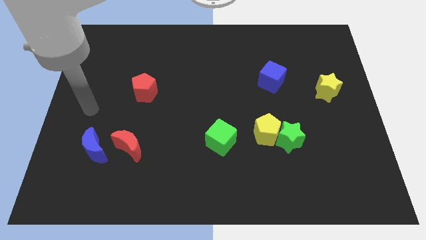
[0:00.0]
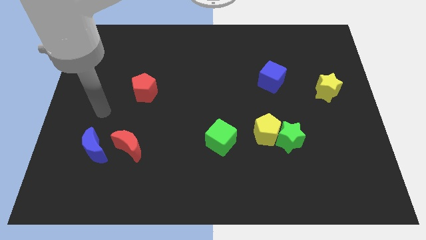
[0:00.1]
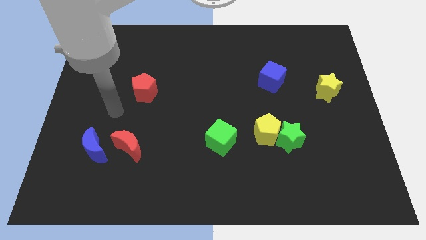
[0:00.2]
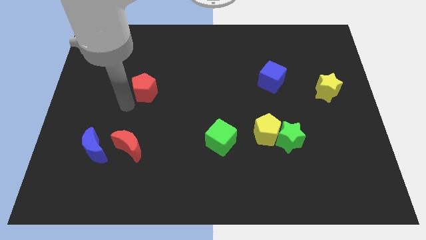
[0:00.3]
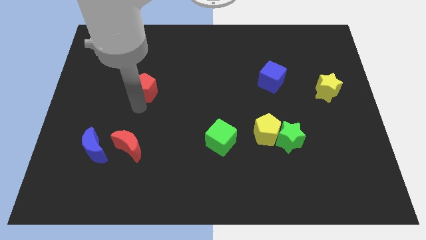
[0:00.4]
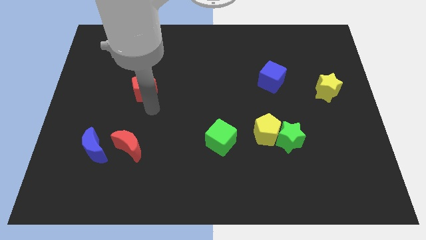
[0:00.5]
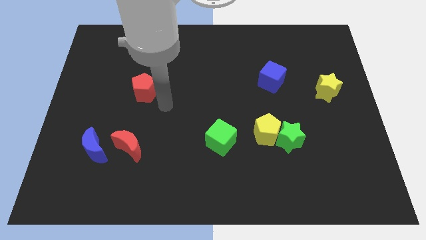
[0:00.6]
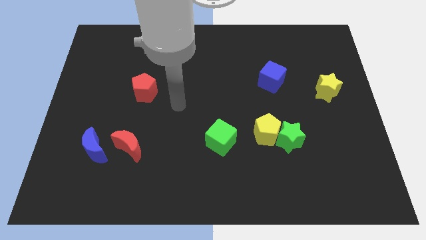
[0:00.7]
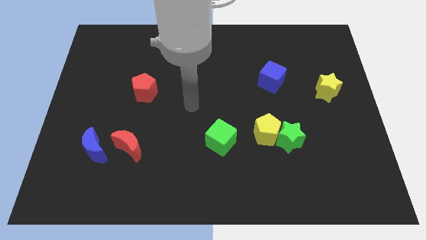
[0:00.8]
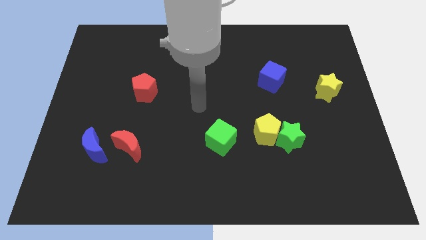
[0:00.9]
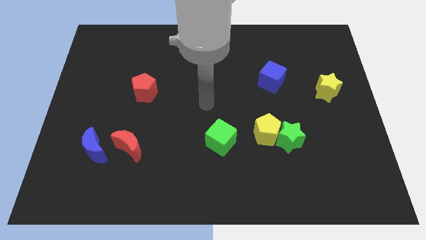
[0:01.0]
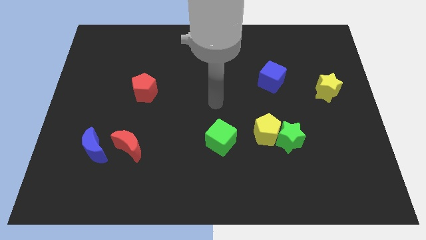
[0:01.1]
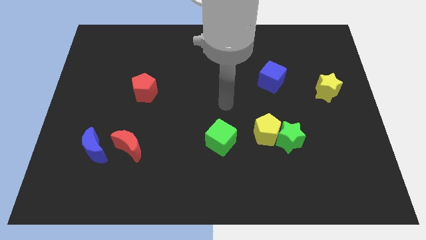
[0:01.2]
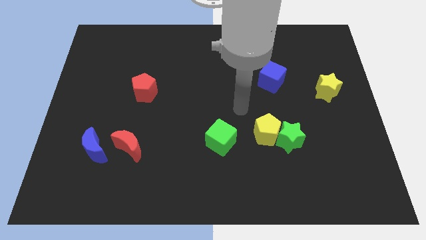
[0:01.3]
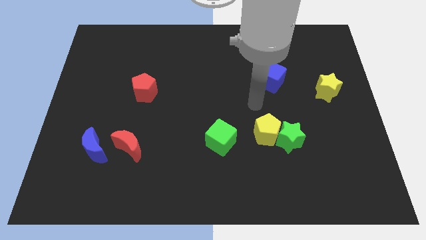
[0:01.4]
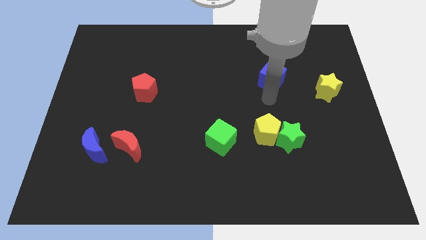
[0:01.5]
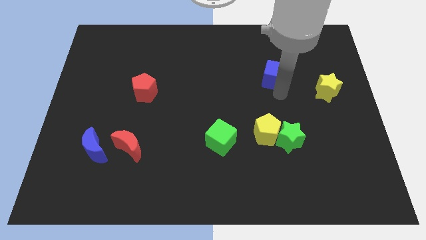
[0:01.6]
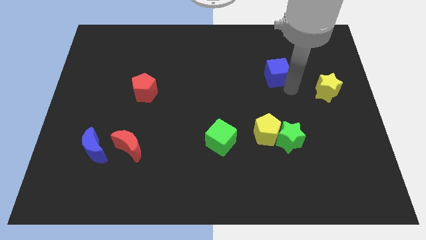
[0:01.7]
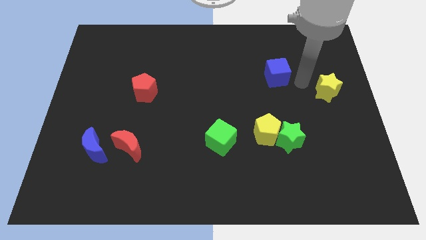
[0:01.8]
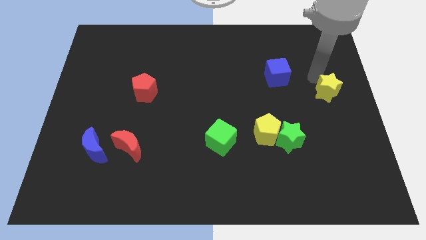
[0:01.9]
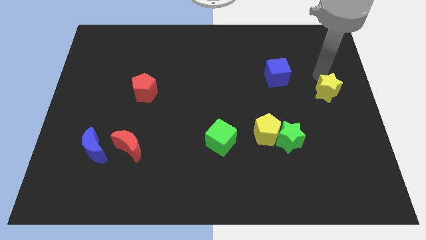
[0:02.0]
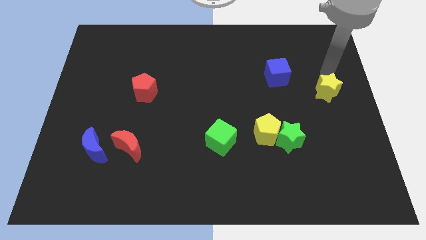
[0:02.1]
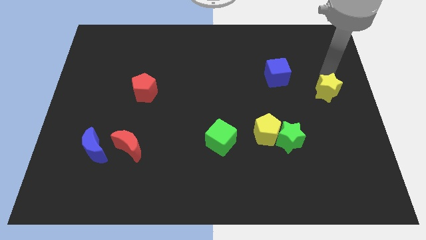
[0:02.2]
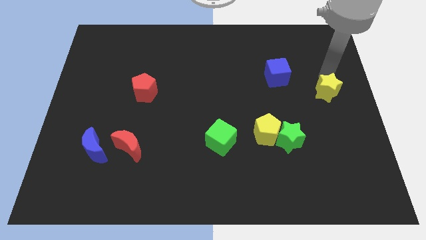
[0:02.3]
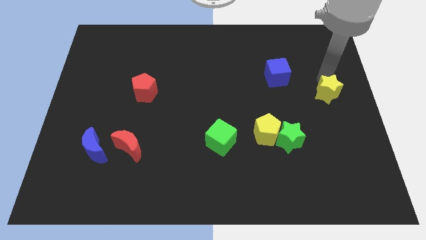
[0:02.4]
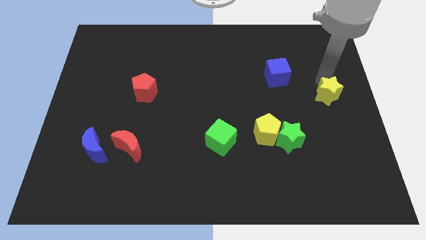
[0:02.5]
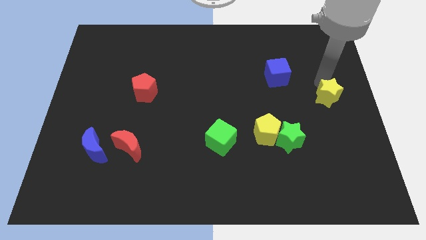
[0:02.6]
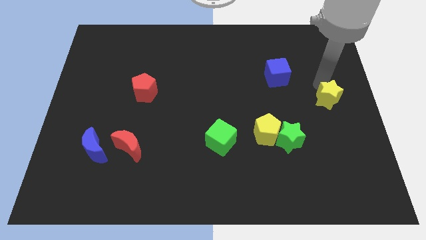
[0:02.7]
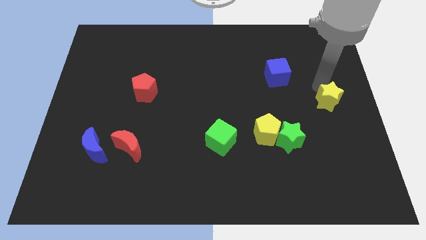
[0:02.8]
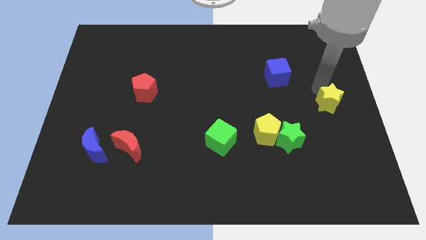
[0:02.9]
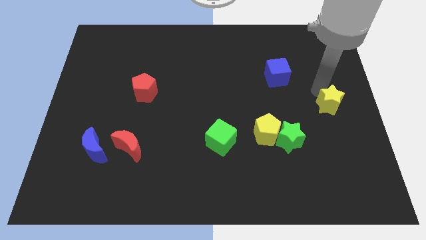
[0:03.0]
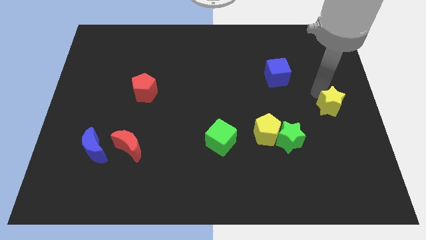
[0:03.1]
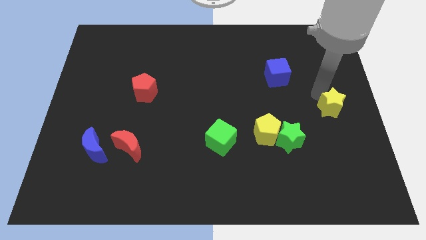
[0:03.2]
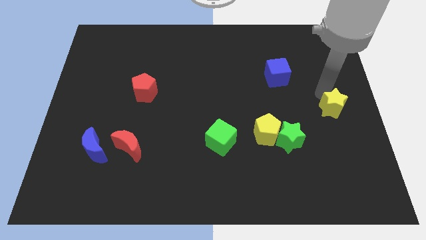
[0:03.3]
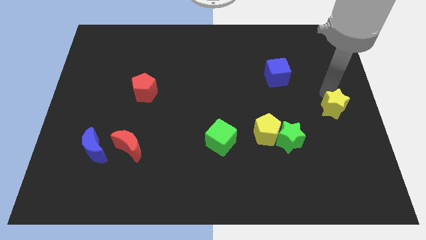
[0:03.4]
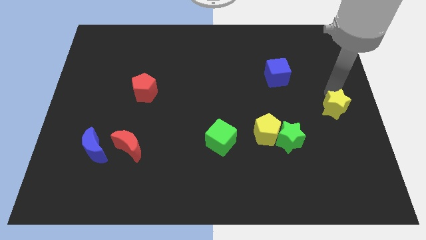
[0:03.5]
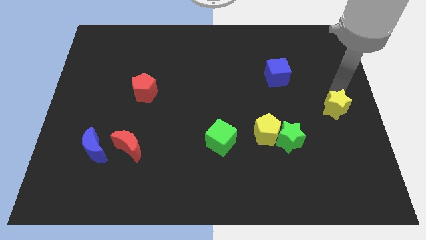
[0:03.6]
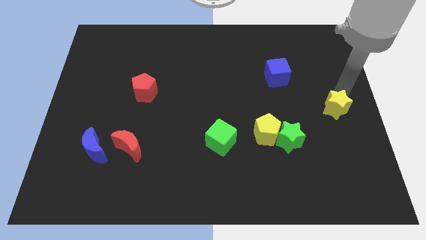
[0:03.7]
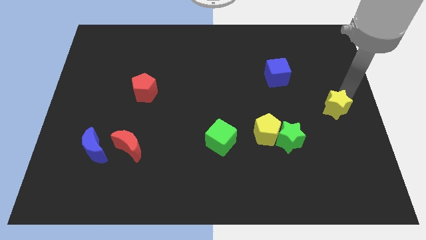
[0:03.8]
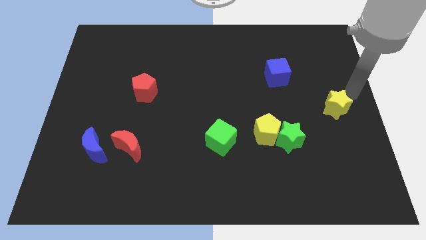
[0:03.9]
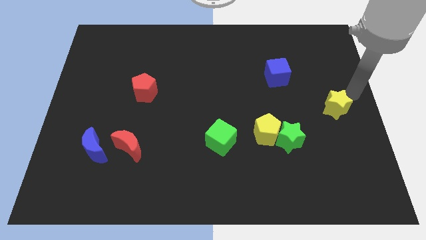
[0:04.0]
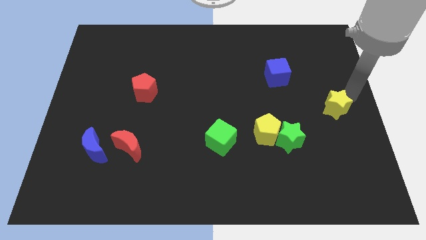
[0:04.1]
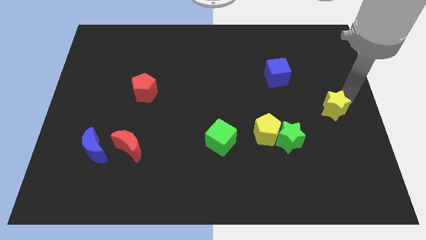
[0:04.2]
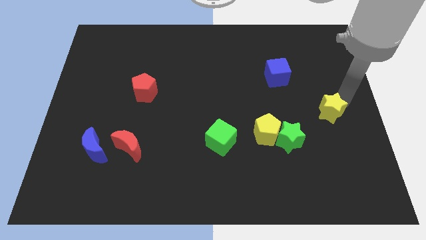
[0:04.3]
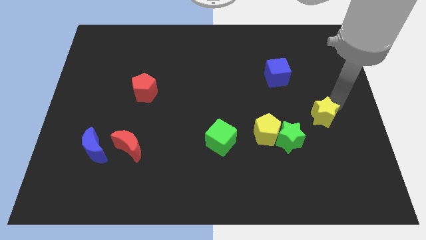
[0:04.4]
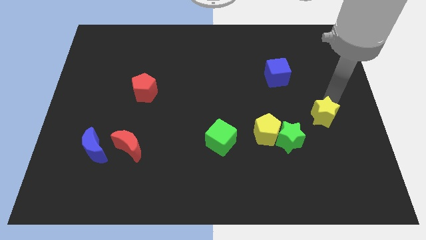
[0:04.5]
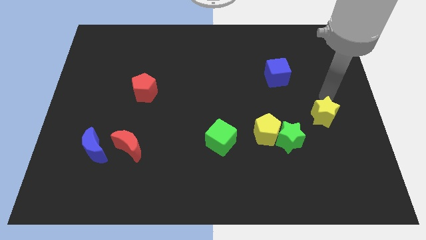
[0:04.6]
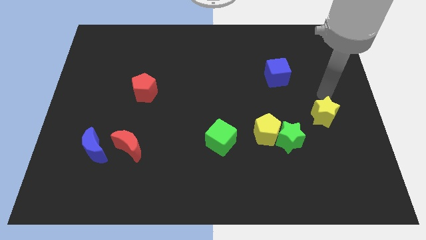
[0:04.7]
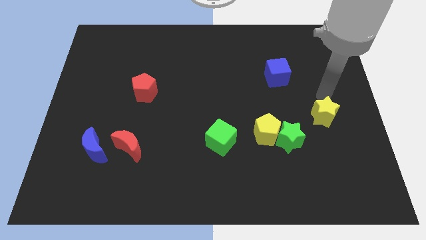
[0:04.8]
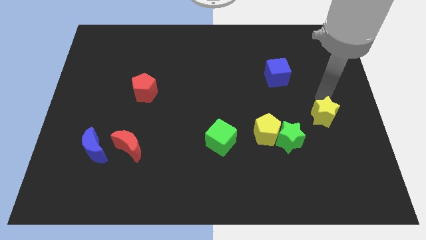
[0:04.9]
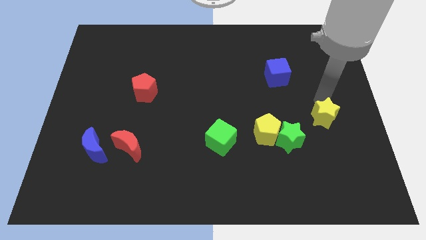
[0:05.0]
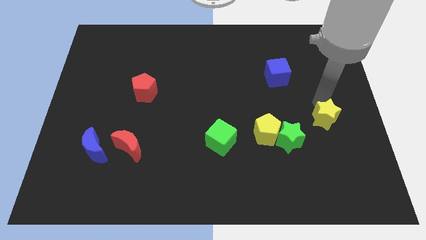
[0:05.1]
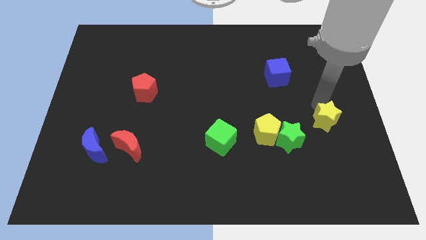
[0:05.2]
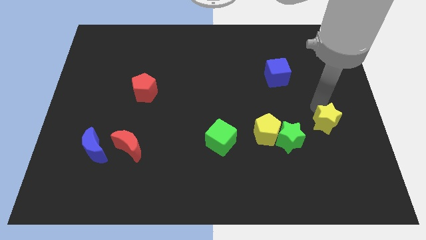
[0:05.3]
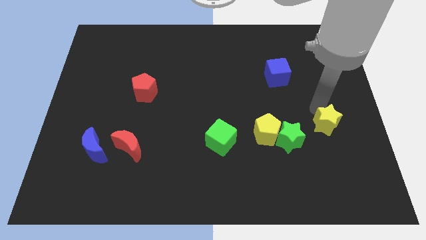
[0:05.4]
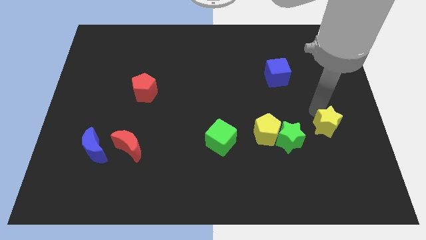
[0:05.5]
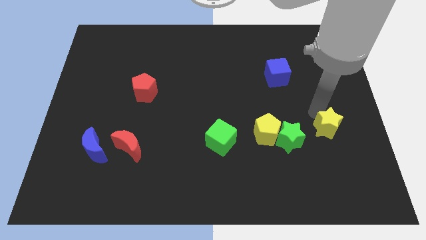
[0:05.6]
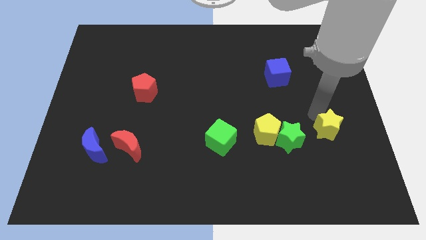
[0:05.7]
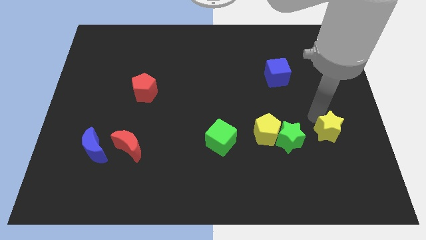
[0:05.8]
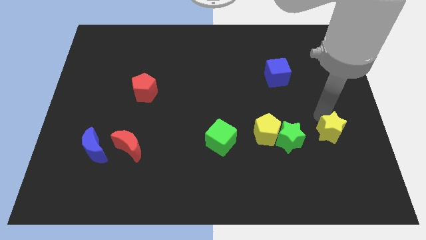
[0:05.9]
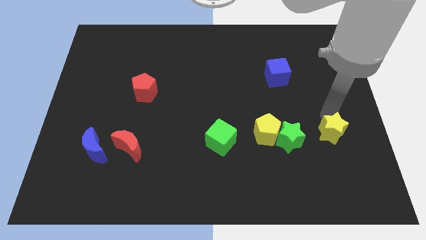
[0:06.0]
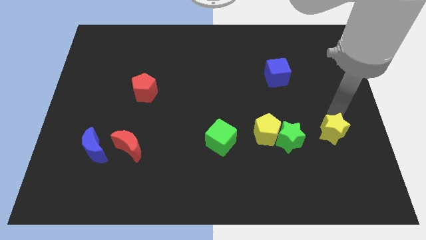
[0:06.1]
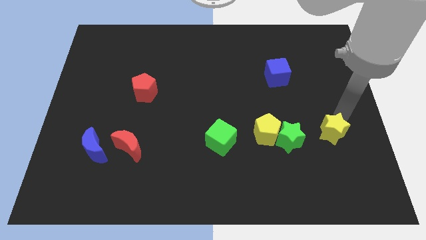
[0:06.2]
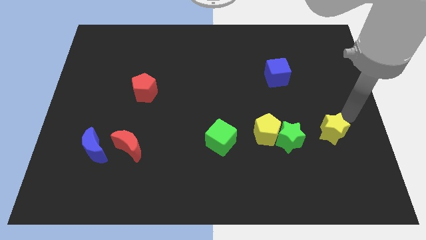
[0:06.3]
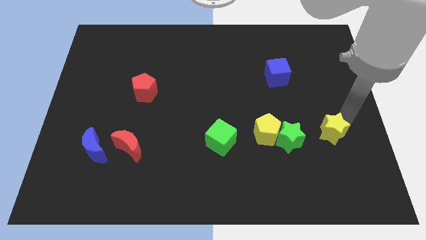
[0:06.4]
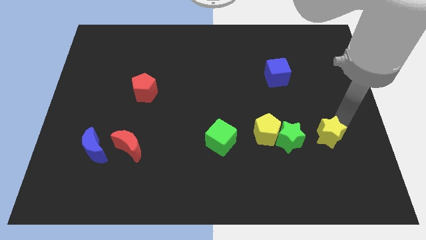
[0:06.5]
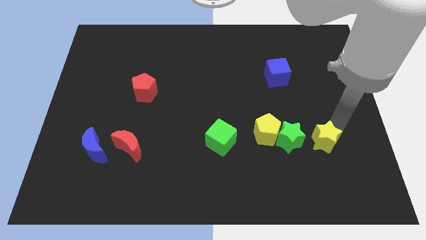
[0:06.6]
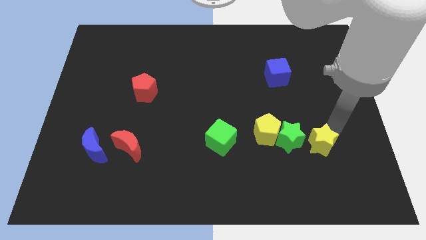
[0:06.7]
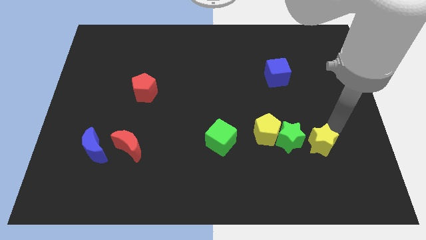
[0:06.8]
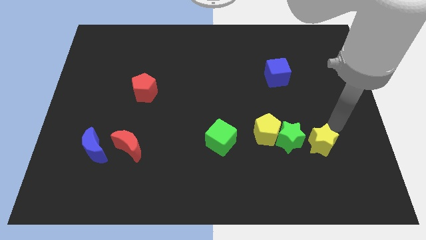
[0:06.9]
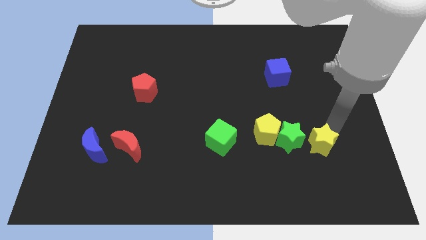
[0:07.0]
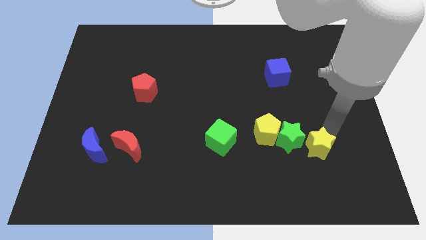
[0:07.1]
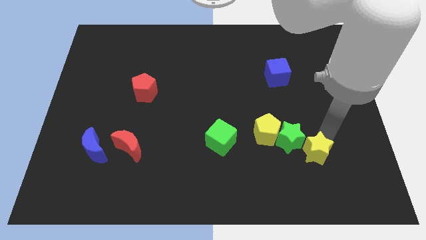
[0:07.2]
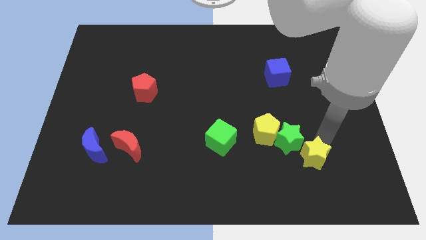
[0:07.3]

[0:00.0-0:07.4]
put the yellow star to the bottom side of the green star
